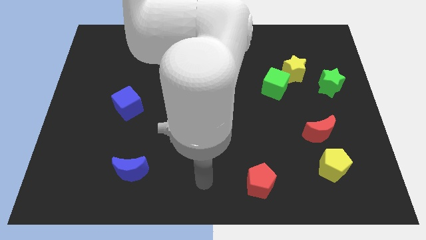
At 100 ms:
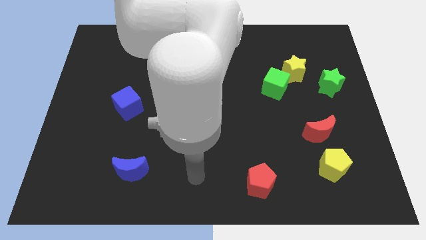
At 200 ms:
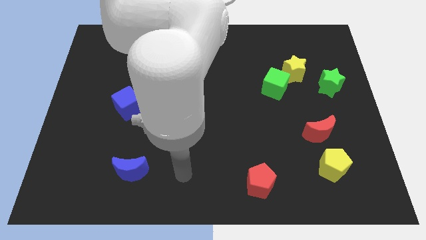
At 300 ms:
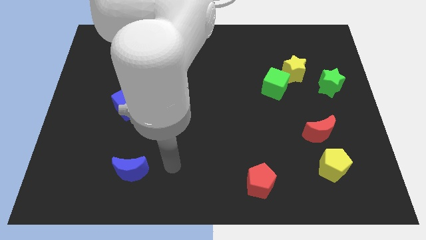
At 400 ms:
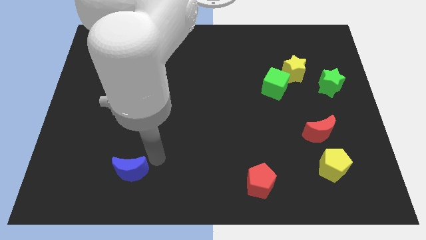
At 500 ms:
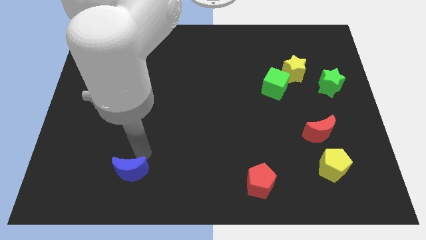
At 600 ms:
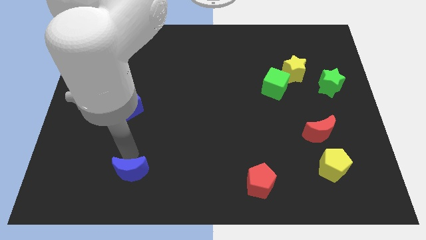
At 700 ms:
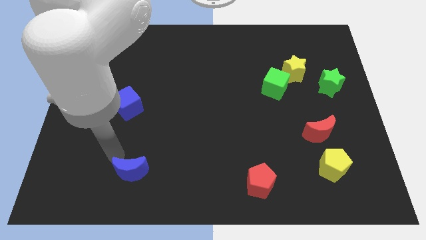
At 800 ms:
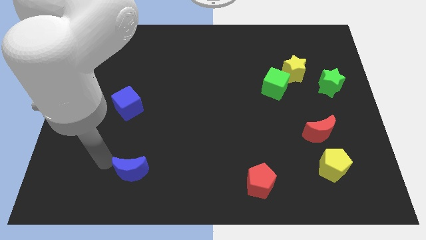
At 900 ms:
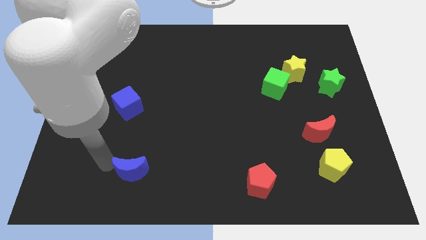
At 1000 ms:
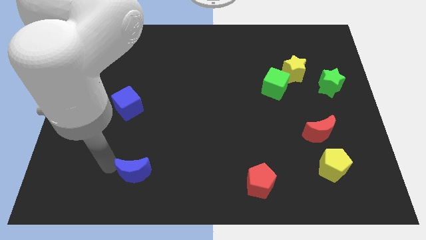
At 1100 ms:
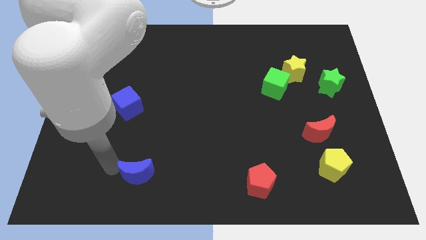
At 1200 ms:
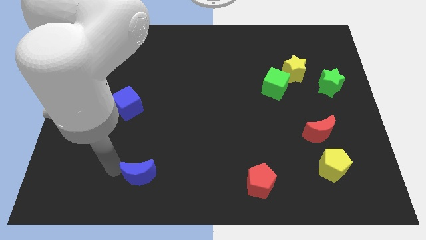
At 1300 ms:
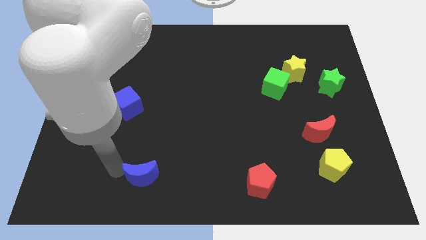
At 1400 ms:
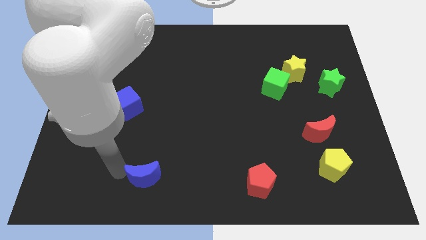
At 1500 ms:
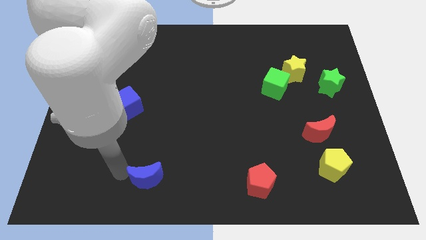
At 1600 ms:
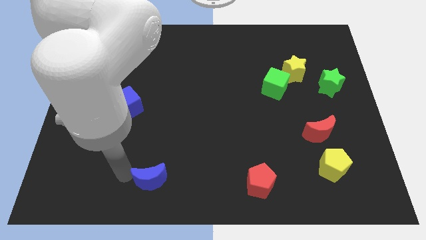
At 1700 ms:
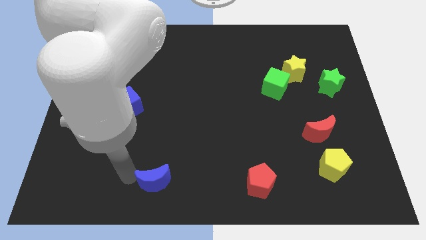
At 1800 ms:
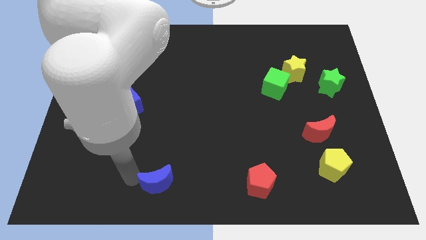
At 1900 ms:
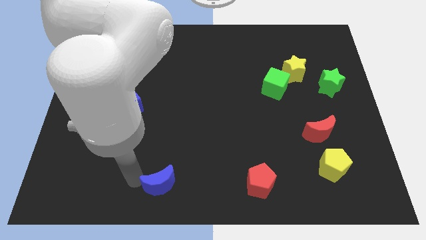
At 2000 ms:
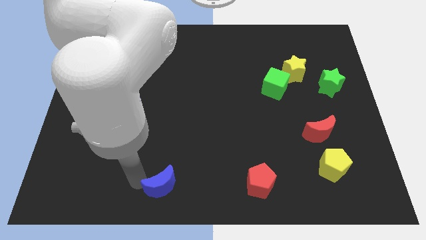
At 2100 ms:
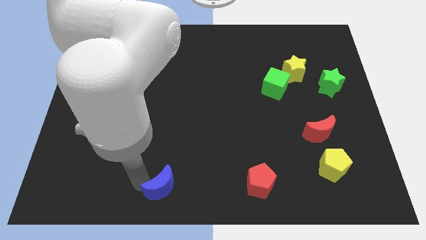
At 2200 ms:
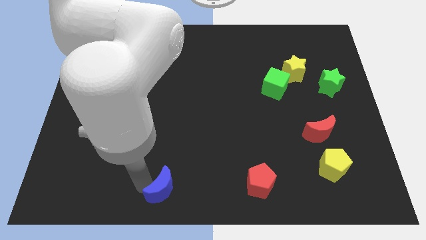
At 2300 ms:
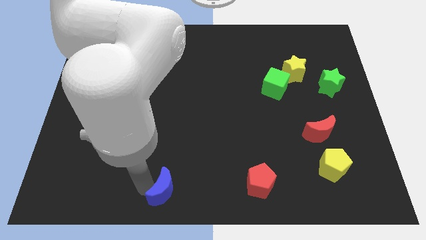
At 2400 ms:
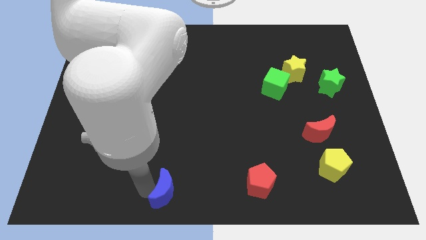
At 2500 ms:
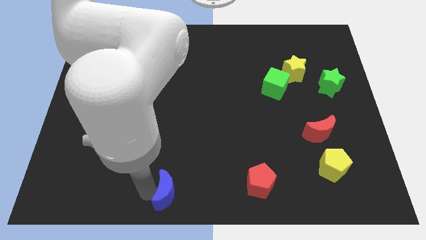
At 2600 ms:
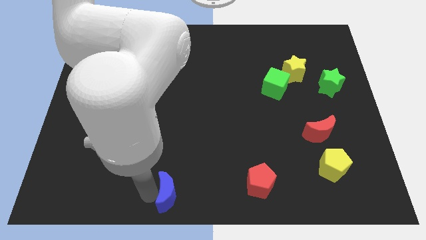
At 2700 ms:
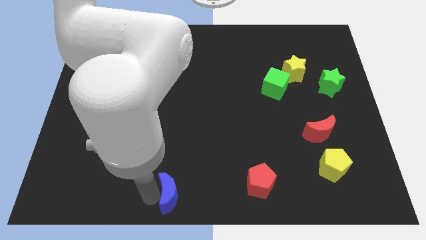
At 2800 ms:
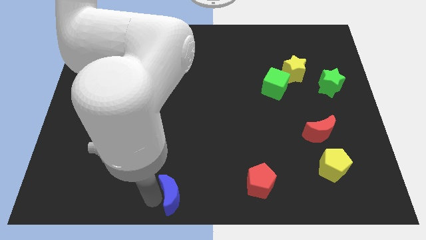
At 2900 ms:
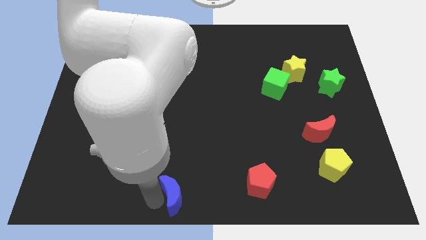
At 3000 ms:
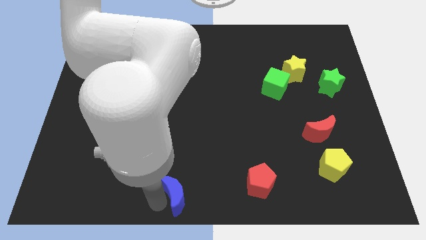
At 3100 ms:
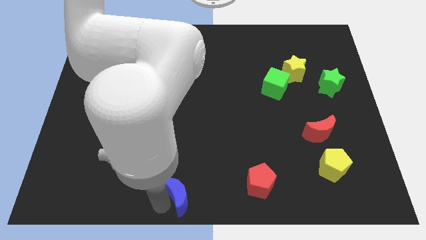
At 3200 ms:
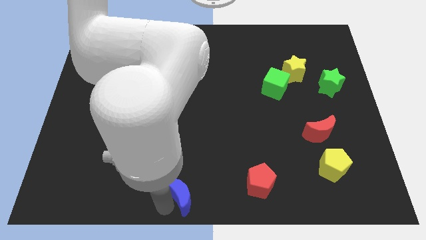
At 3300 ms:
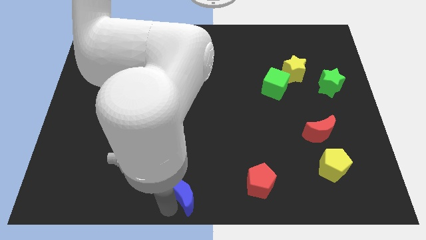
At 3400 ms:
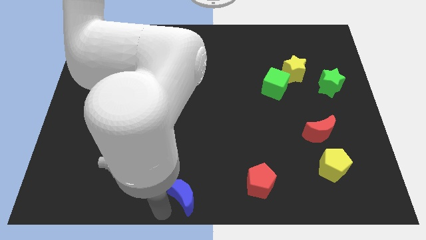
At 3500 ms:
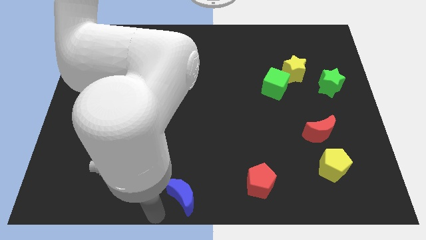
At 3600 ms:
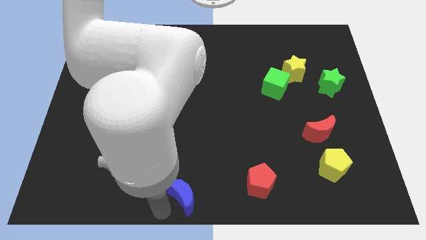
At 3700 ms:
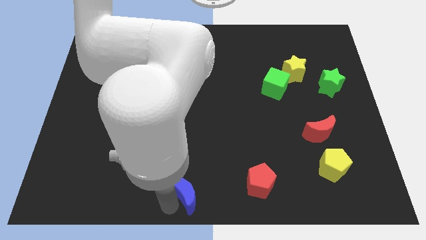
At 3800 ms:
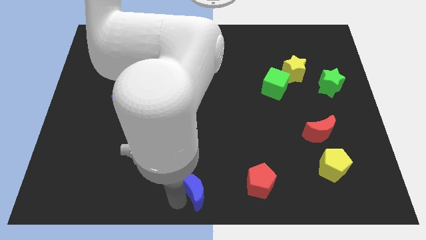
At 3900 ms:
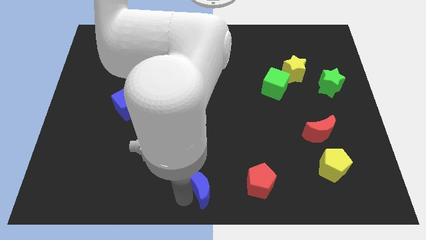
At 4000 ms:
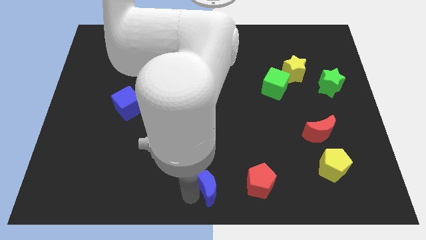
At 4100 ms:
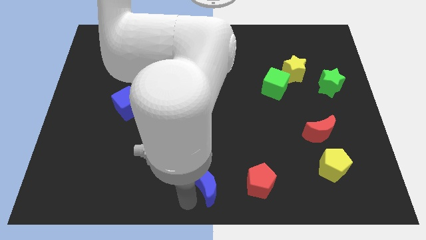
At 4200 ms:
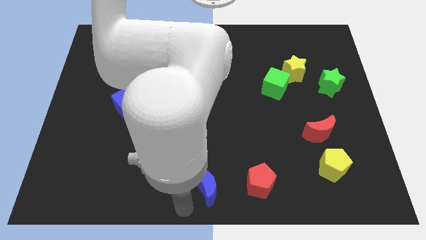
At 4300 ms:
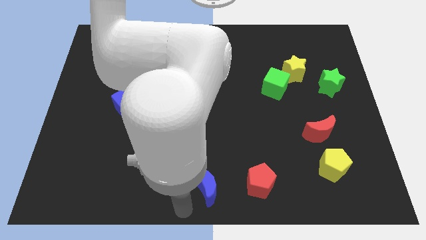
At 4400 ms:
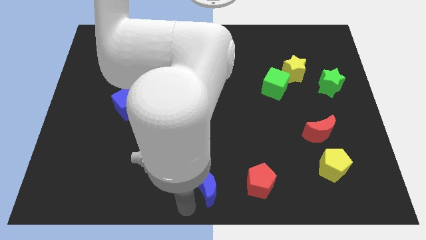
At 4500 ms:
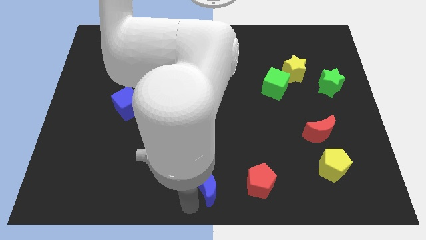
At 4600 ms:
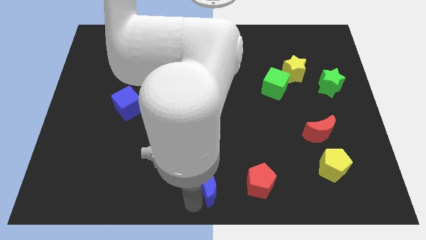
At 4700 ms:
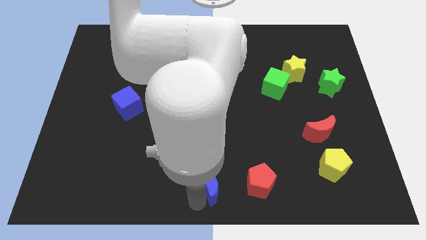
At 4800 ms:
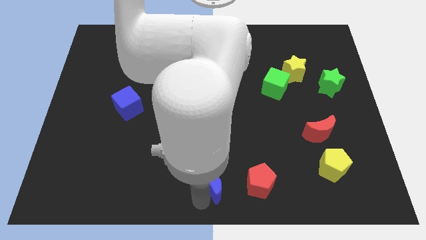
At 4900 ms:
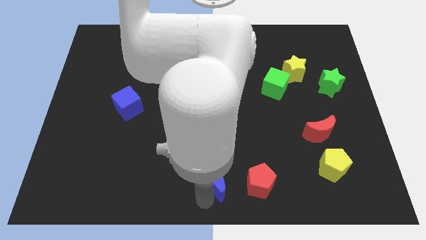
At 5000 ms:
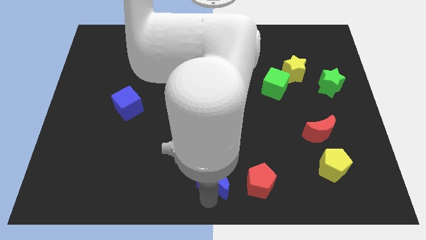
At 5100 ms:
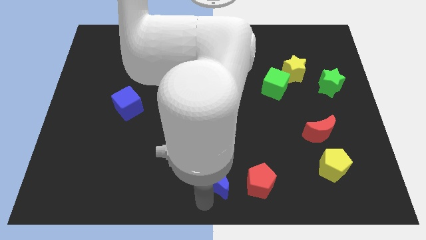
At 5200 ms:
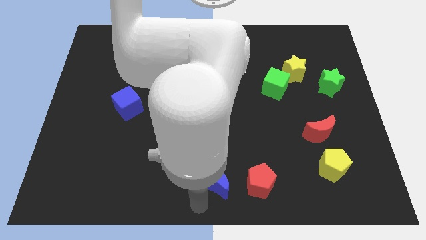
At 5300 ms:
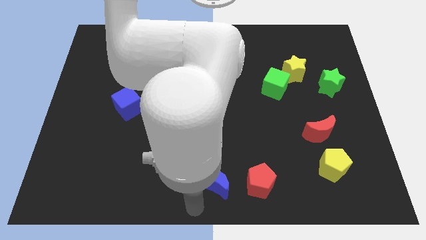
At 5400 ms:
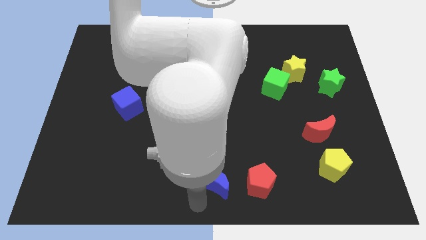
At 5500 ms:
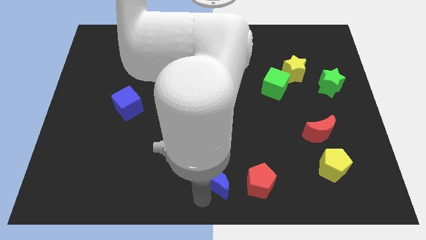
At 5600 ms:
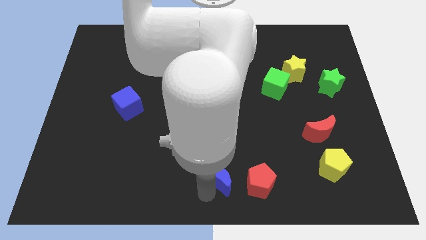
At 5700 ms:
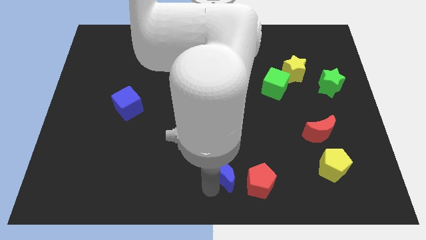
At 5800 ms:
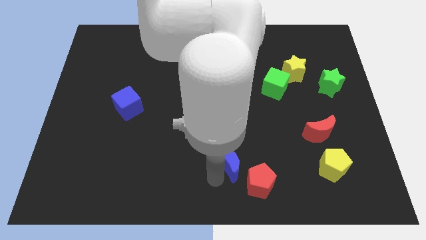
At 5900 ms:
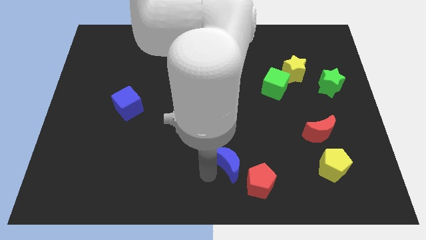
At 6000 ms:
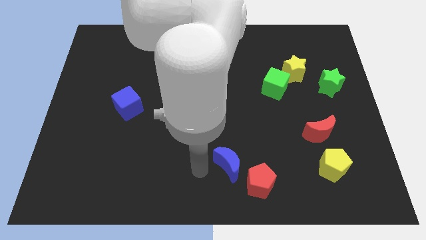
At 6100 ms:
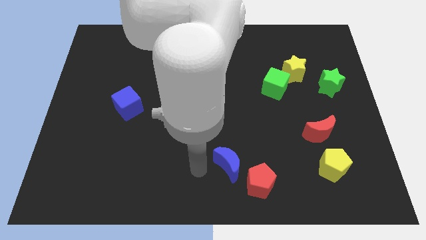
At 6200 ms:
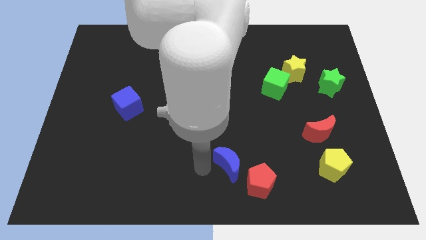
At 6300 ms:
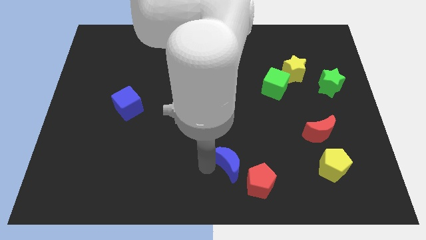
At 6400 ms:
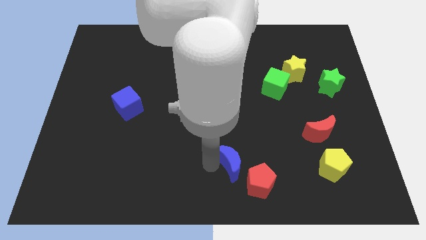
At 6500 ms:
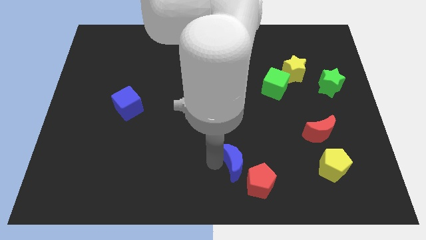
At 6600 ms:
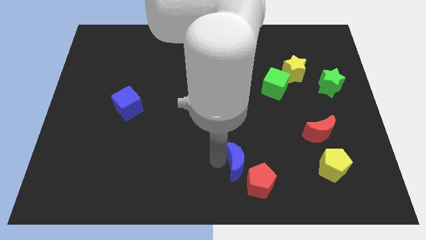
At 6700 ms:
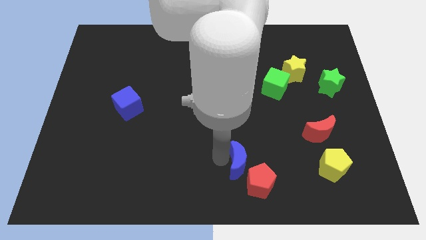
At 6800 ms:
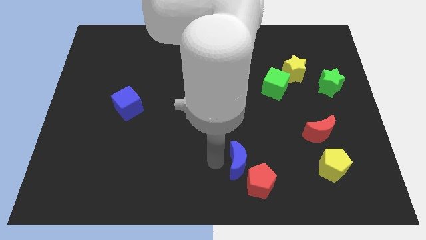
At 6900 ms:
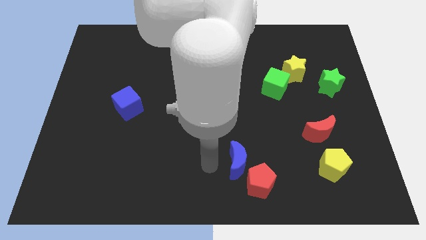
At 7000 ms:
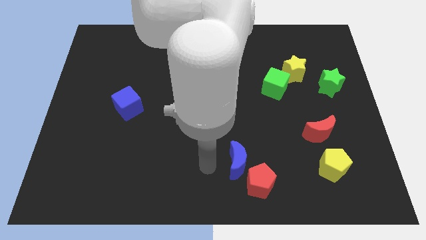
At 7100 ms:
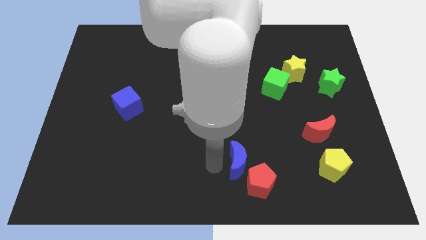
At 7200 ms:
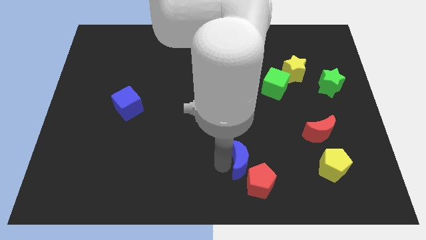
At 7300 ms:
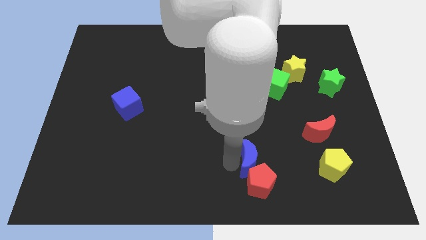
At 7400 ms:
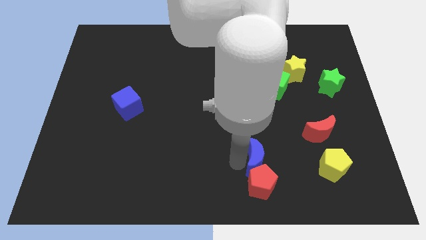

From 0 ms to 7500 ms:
slide the blue moon to the top right side of the red pentagon
